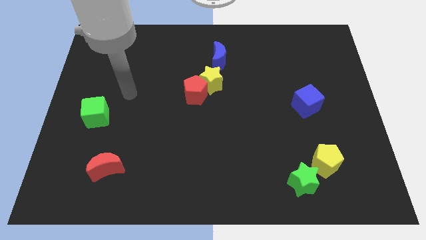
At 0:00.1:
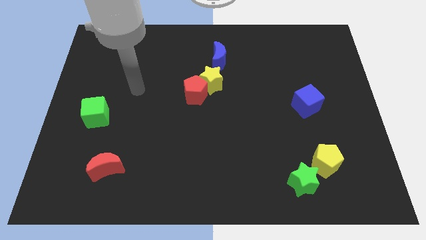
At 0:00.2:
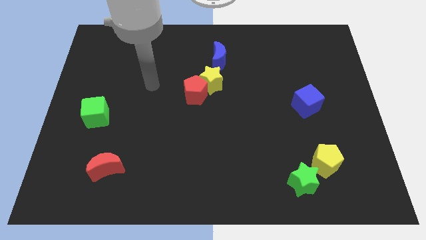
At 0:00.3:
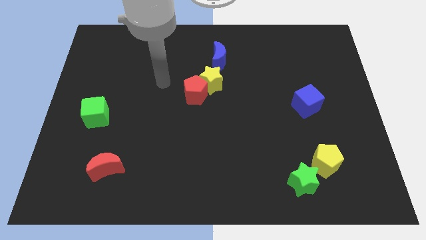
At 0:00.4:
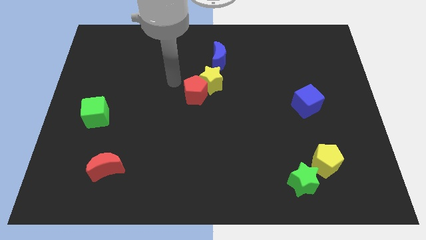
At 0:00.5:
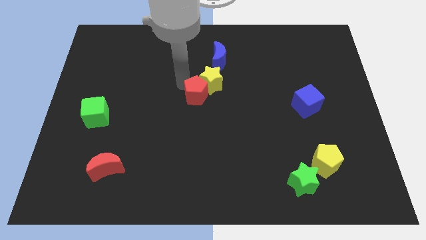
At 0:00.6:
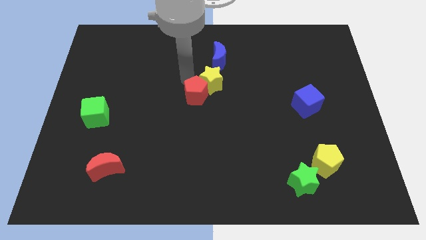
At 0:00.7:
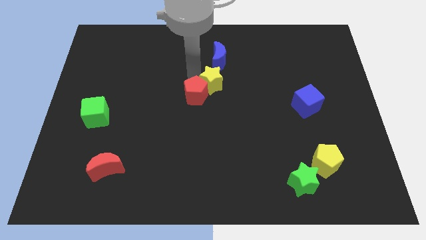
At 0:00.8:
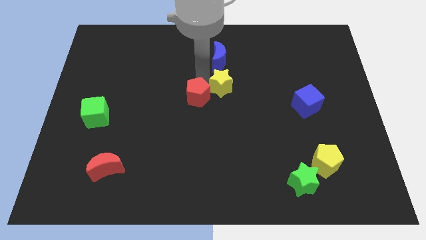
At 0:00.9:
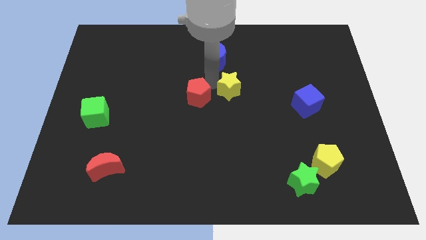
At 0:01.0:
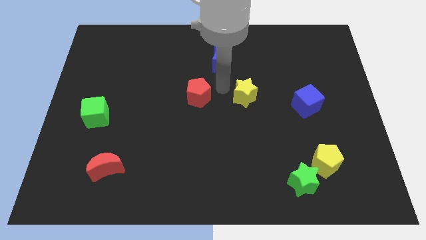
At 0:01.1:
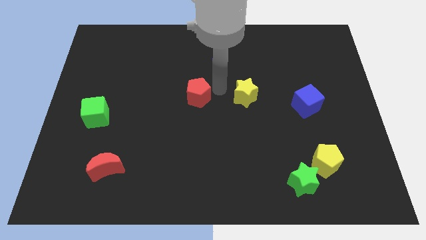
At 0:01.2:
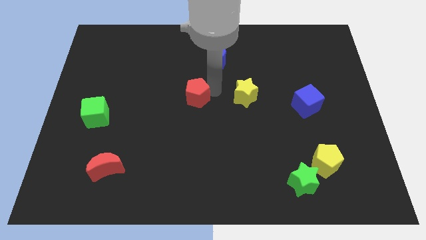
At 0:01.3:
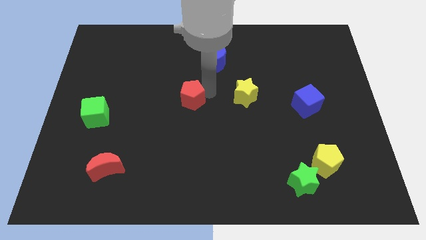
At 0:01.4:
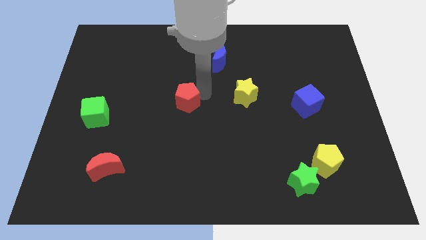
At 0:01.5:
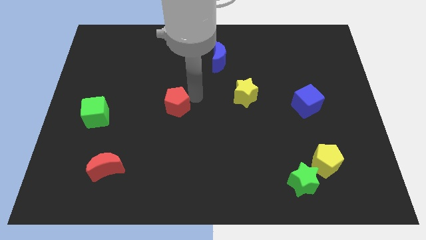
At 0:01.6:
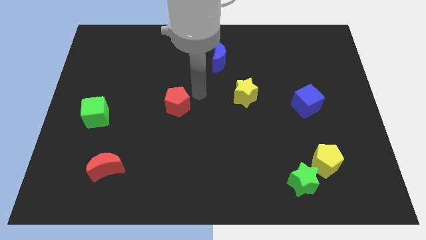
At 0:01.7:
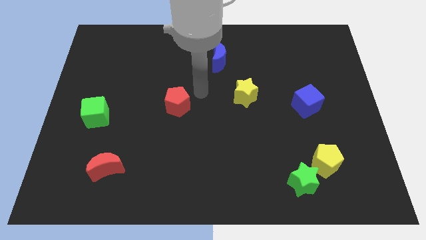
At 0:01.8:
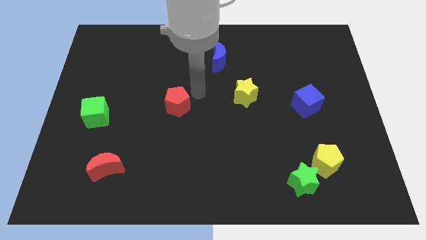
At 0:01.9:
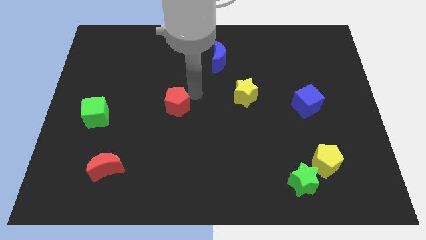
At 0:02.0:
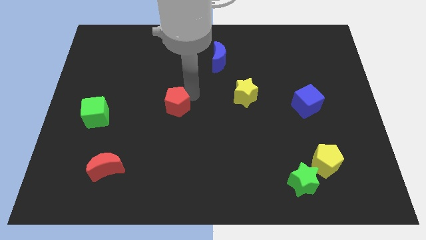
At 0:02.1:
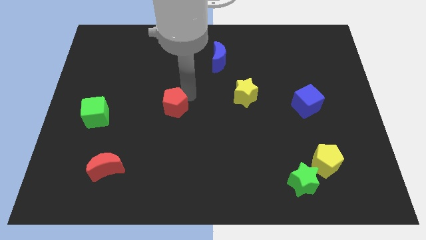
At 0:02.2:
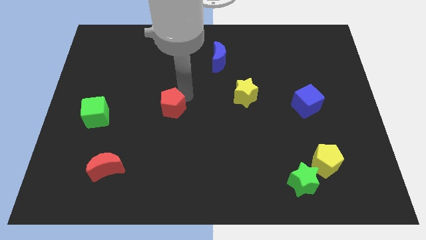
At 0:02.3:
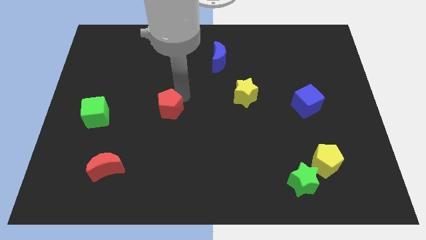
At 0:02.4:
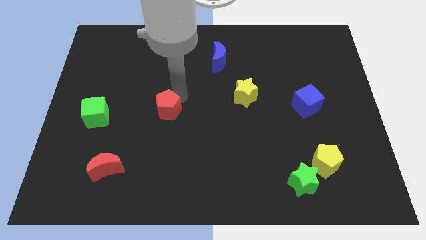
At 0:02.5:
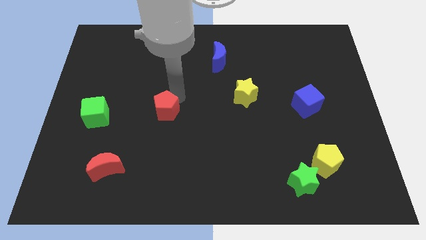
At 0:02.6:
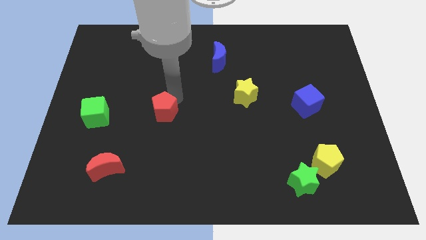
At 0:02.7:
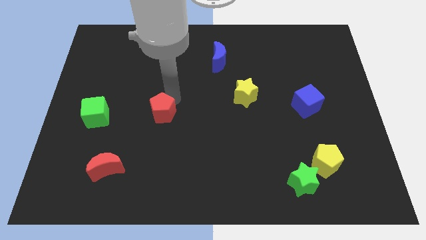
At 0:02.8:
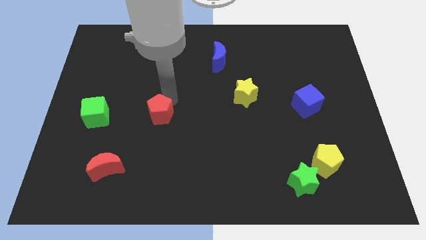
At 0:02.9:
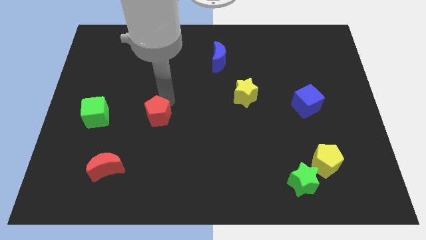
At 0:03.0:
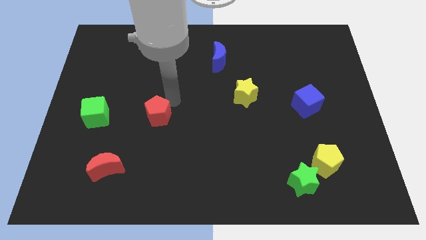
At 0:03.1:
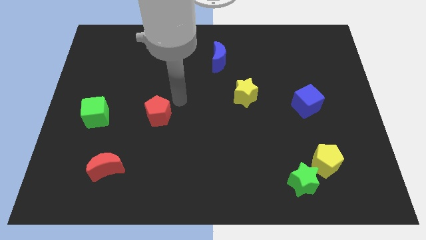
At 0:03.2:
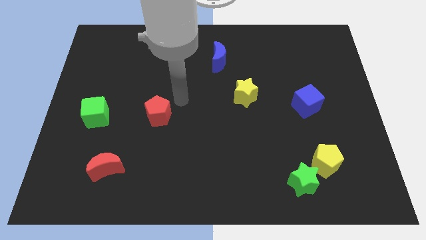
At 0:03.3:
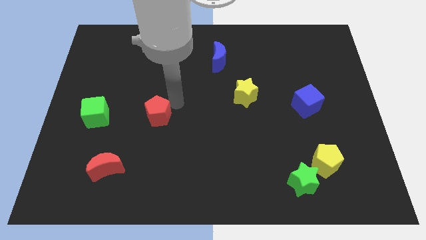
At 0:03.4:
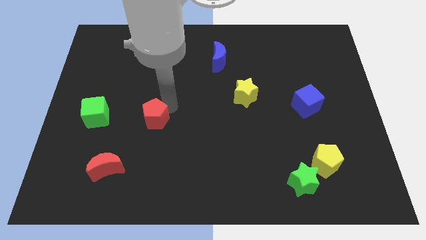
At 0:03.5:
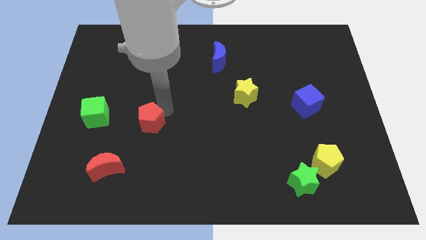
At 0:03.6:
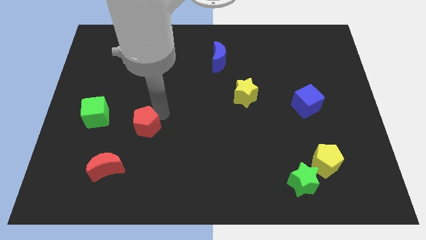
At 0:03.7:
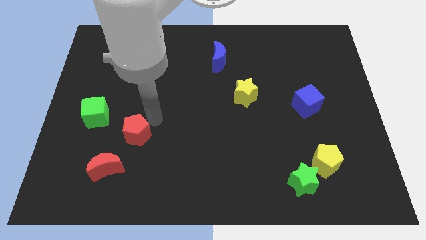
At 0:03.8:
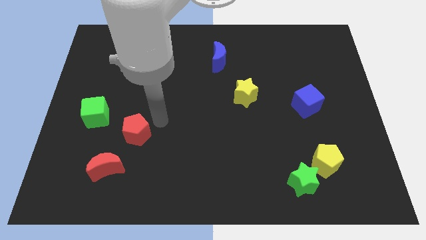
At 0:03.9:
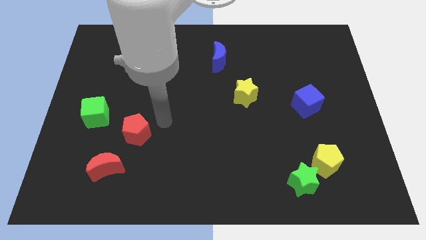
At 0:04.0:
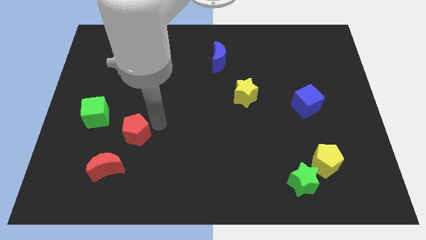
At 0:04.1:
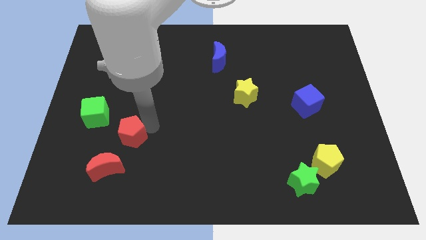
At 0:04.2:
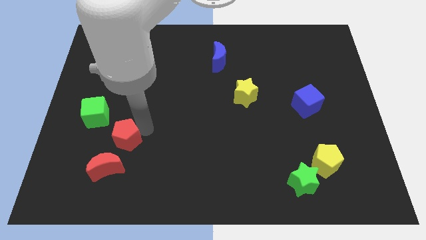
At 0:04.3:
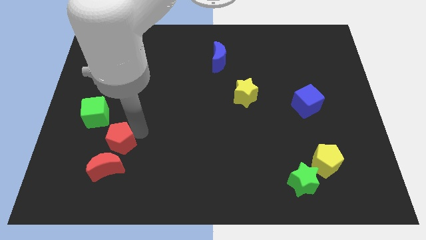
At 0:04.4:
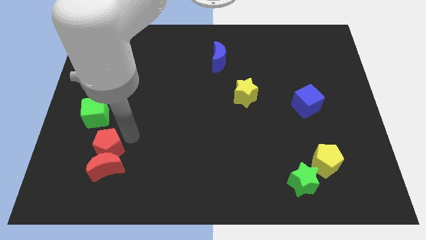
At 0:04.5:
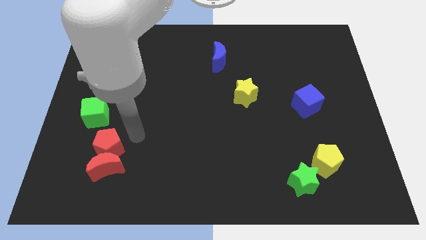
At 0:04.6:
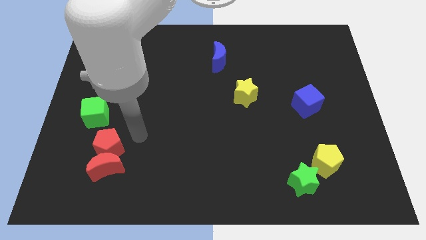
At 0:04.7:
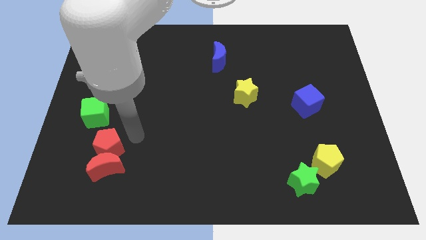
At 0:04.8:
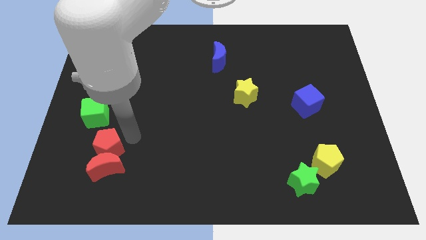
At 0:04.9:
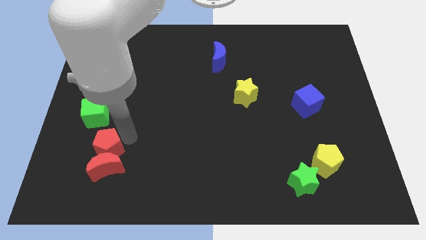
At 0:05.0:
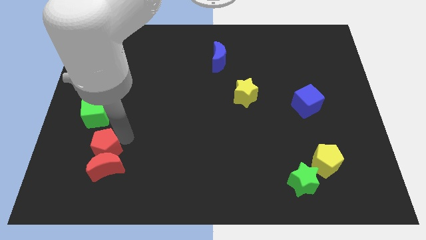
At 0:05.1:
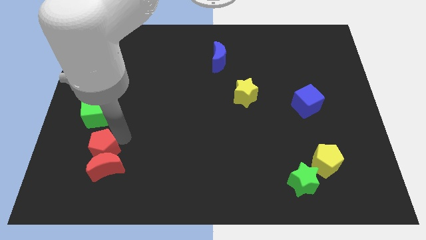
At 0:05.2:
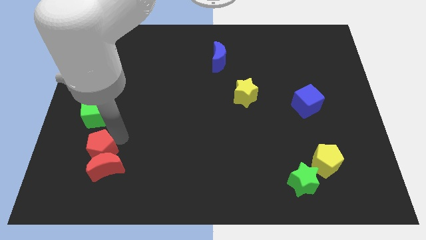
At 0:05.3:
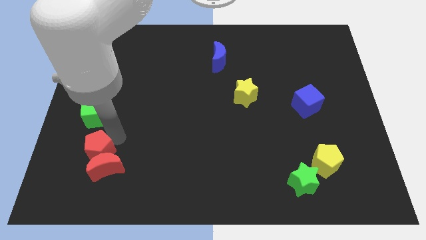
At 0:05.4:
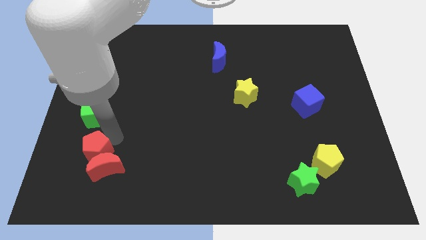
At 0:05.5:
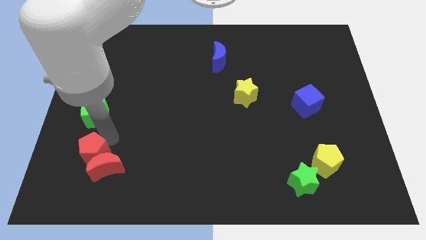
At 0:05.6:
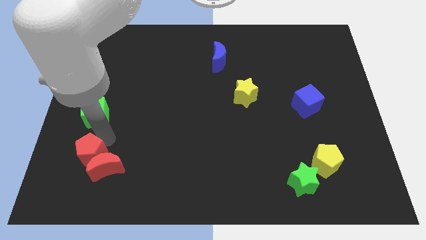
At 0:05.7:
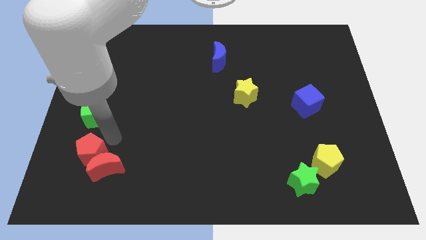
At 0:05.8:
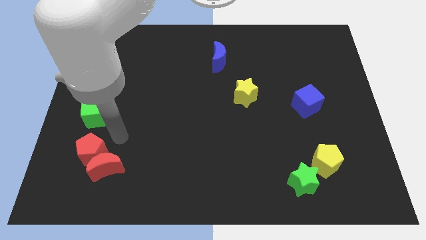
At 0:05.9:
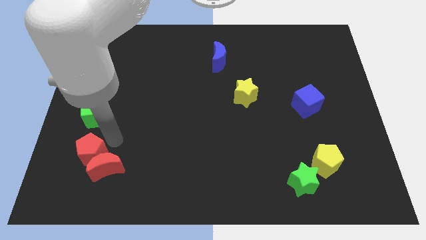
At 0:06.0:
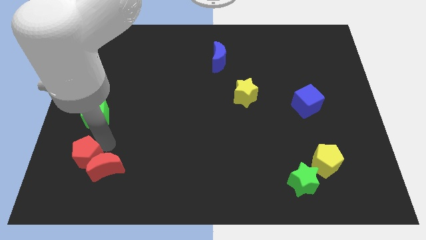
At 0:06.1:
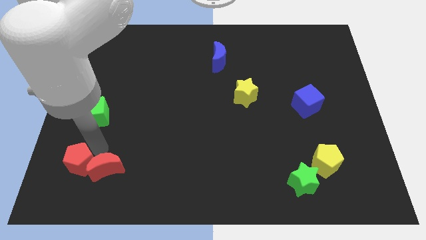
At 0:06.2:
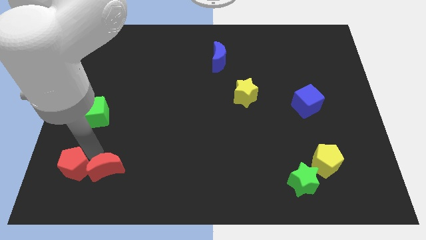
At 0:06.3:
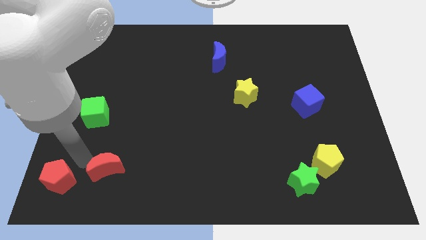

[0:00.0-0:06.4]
move the red pentagon to the bottom left
